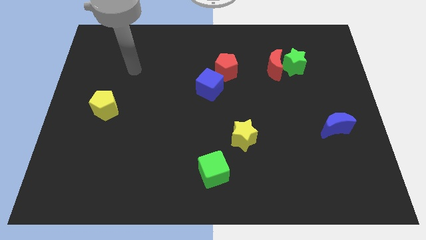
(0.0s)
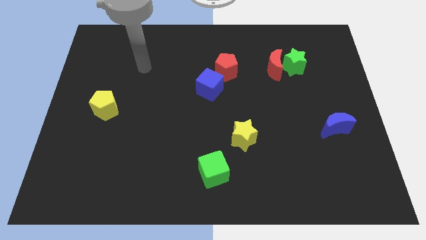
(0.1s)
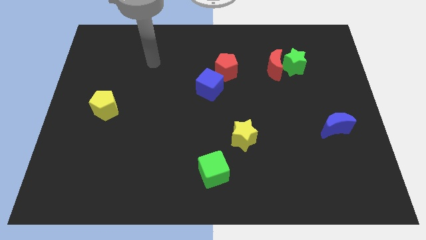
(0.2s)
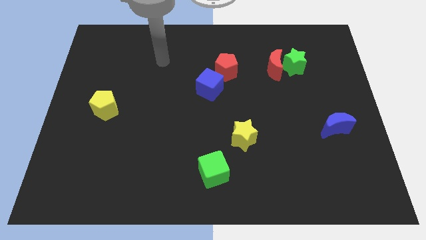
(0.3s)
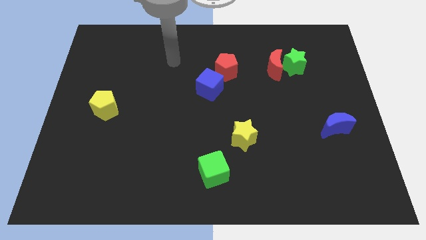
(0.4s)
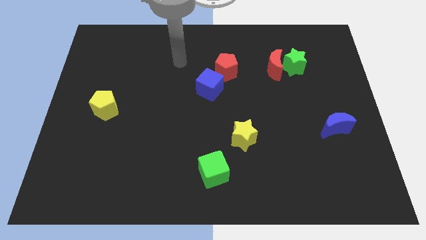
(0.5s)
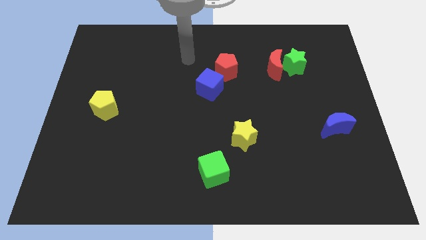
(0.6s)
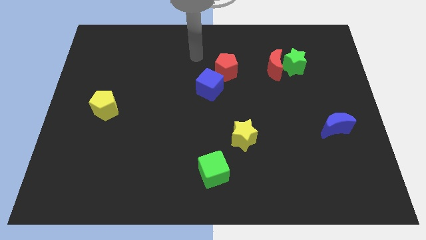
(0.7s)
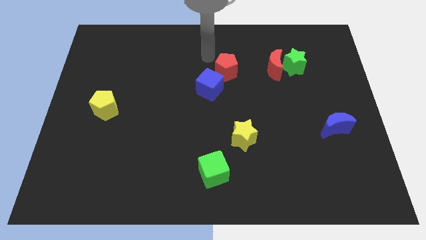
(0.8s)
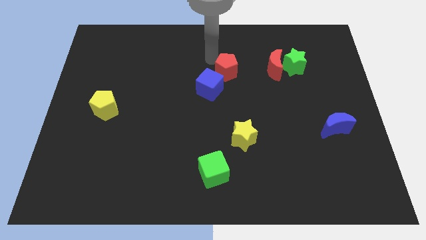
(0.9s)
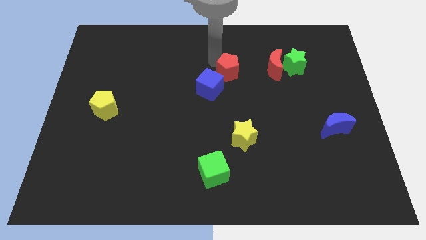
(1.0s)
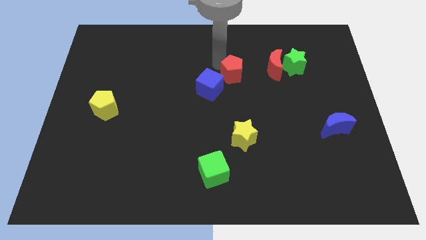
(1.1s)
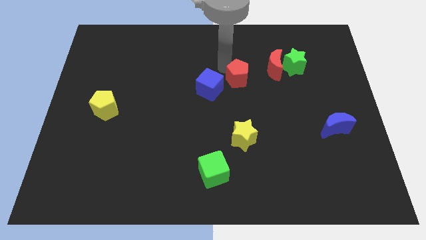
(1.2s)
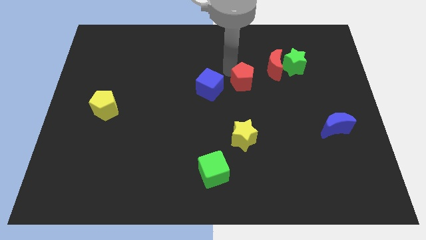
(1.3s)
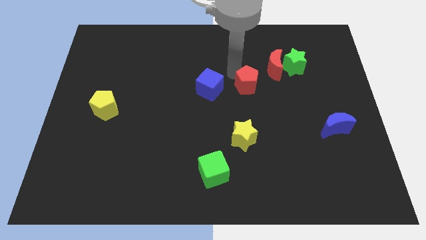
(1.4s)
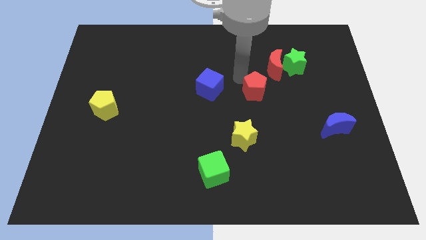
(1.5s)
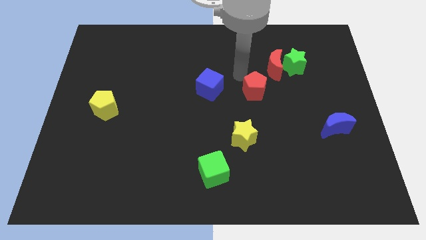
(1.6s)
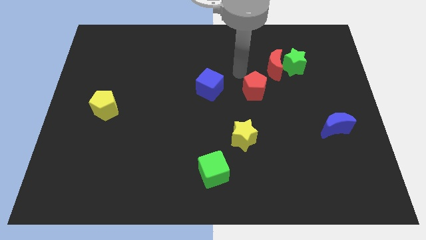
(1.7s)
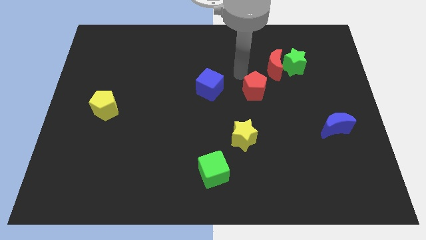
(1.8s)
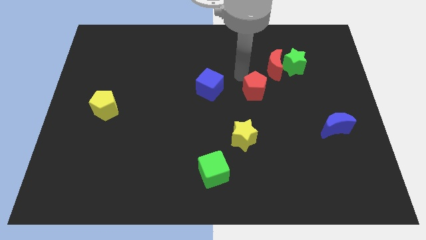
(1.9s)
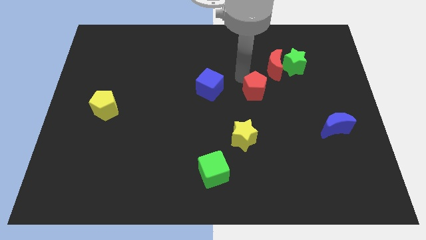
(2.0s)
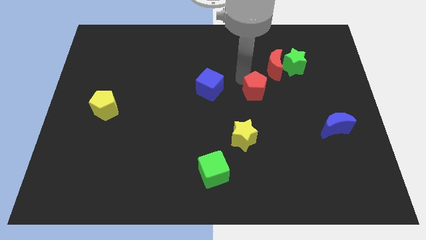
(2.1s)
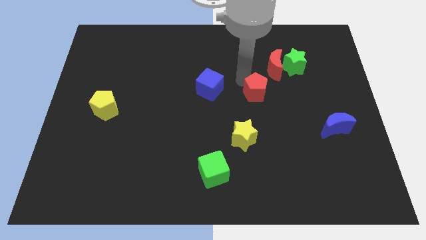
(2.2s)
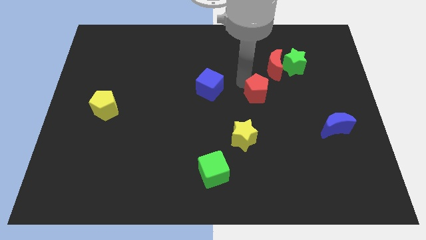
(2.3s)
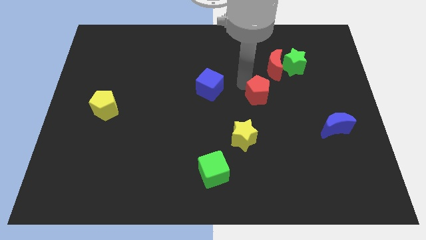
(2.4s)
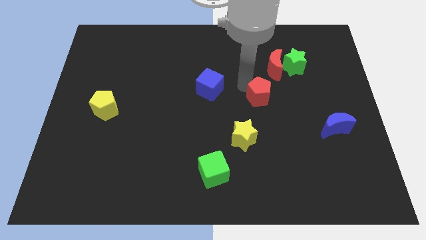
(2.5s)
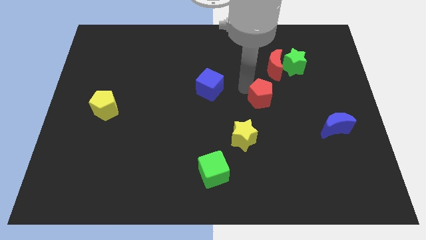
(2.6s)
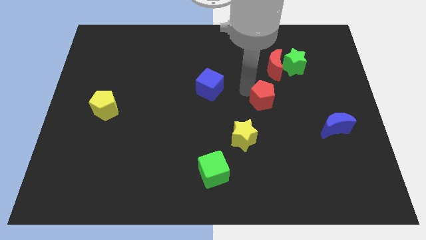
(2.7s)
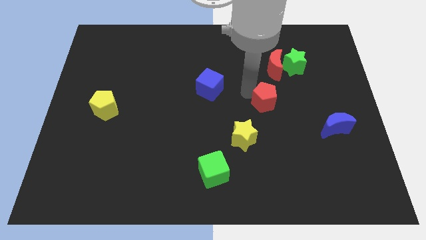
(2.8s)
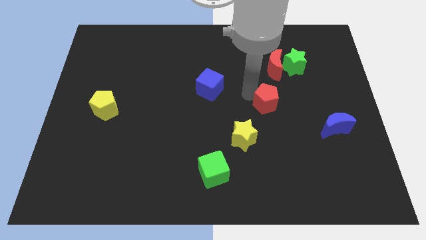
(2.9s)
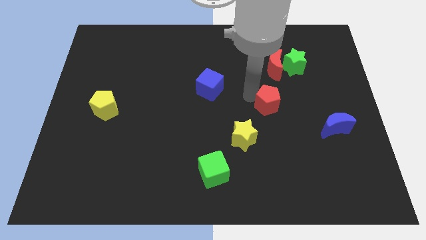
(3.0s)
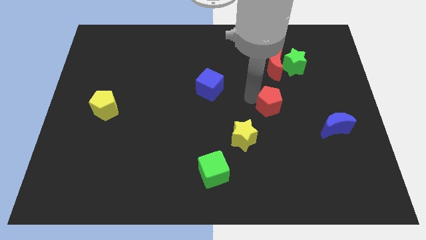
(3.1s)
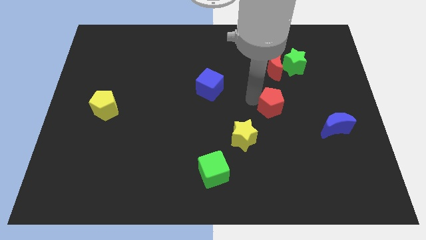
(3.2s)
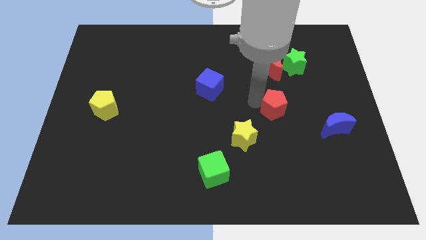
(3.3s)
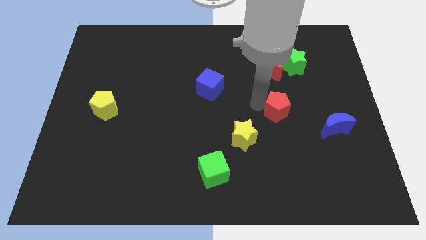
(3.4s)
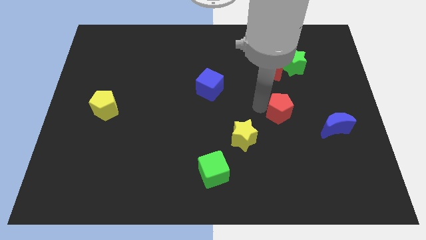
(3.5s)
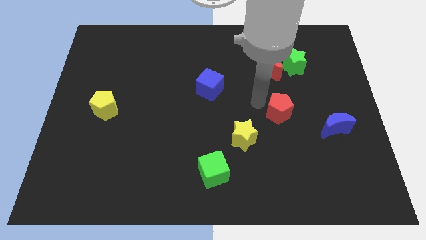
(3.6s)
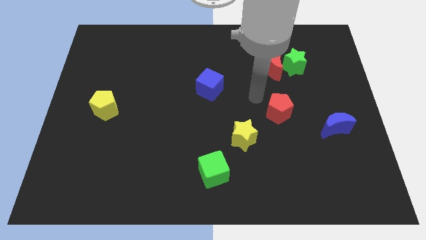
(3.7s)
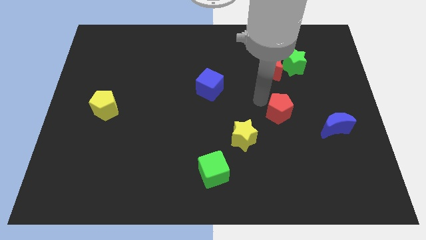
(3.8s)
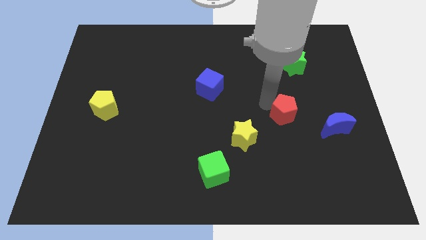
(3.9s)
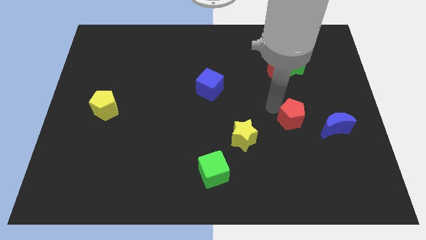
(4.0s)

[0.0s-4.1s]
move the red pentagon down and to the right

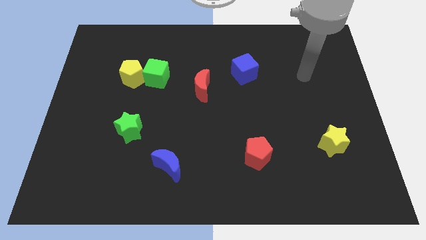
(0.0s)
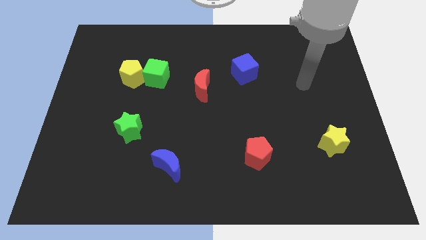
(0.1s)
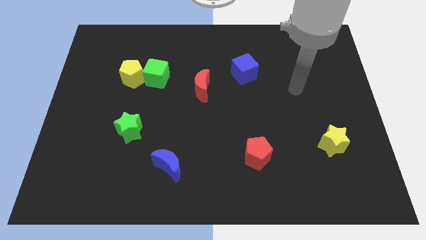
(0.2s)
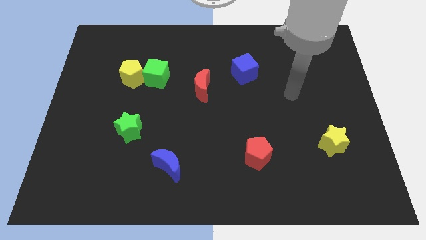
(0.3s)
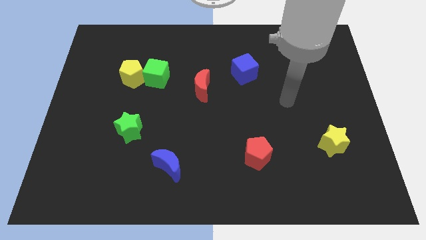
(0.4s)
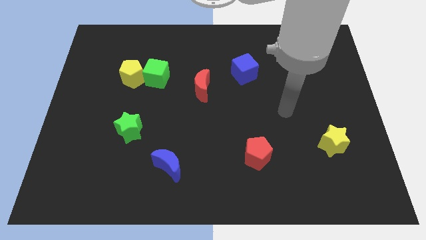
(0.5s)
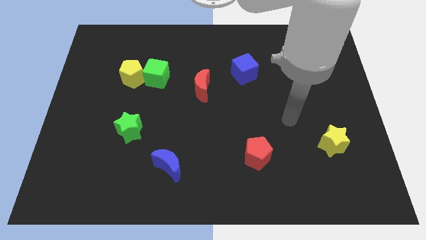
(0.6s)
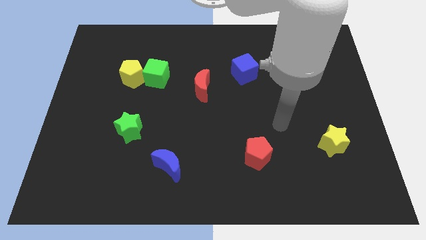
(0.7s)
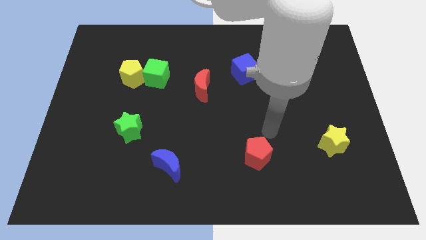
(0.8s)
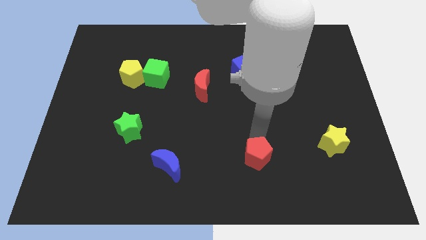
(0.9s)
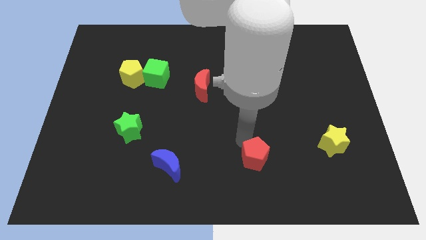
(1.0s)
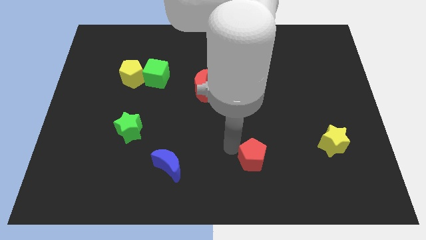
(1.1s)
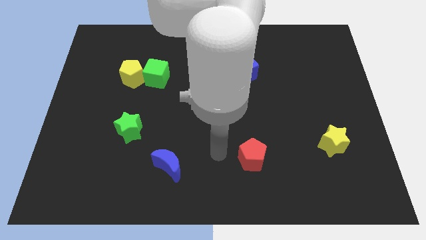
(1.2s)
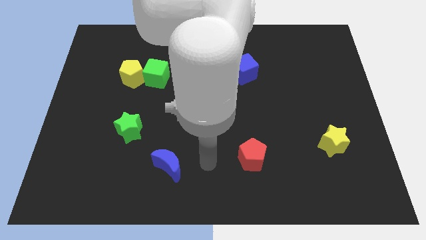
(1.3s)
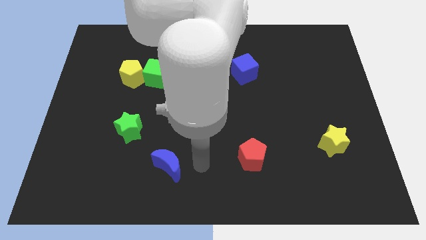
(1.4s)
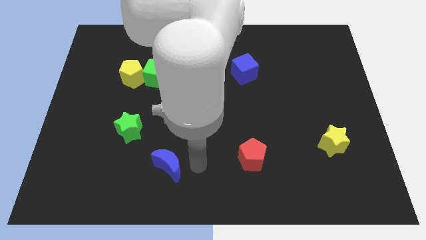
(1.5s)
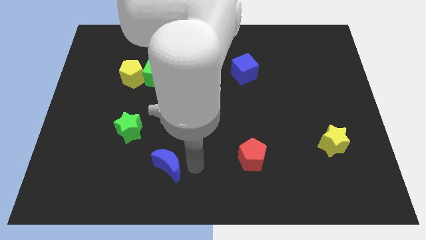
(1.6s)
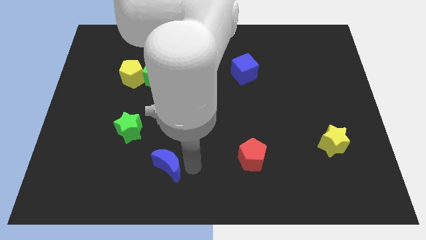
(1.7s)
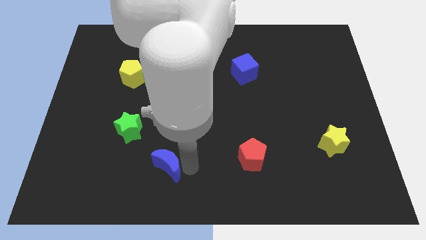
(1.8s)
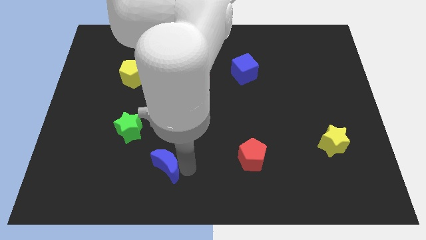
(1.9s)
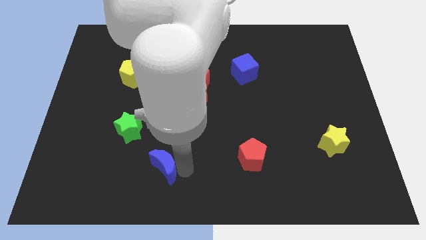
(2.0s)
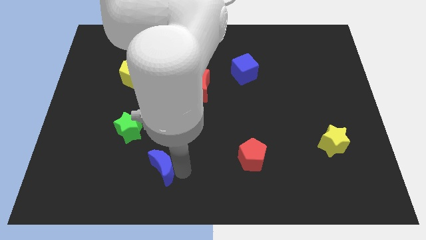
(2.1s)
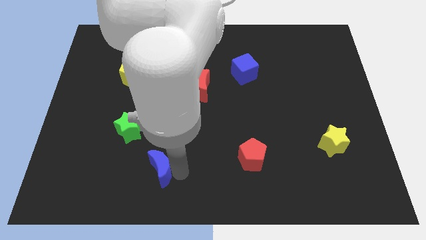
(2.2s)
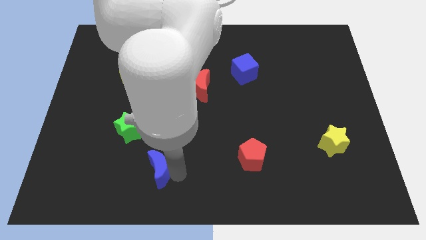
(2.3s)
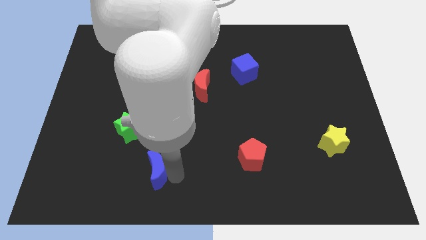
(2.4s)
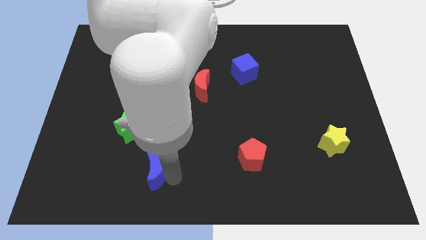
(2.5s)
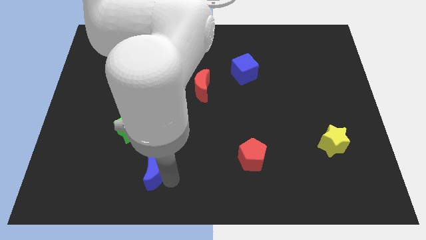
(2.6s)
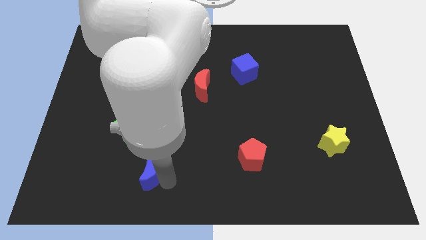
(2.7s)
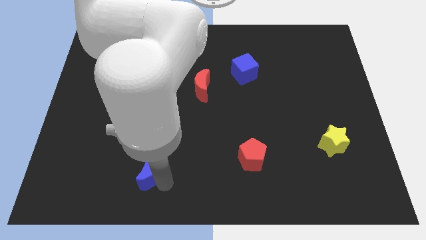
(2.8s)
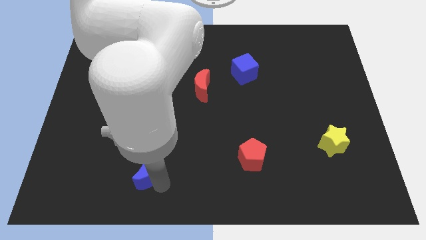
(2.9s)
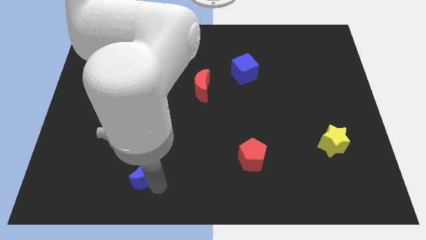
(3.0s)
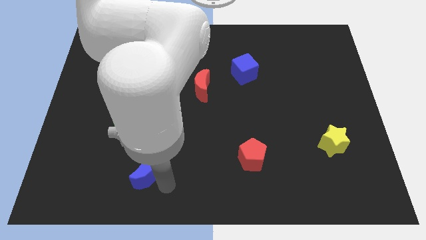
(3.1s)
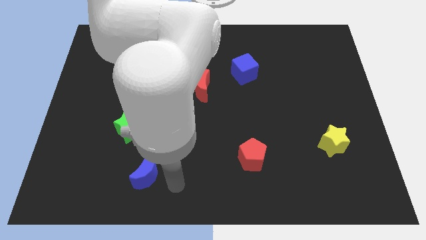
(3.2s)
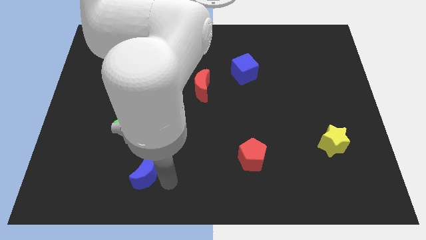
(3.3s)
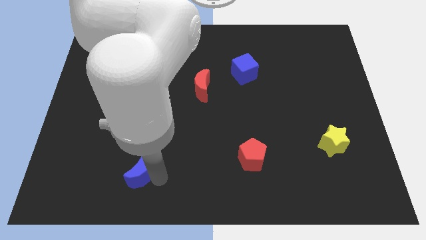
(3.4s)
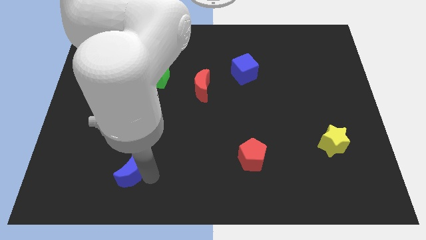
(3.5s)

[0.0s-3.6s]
slightly move the blue moon left

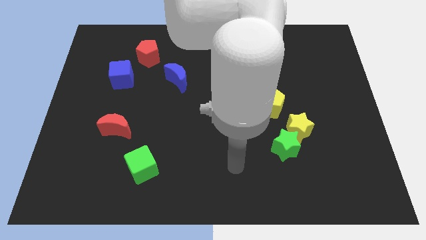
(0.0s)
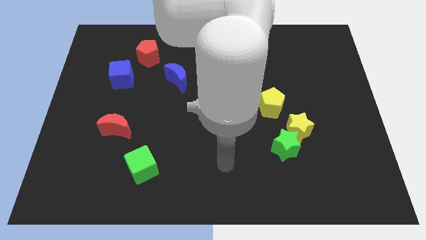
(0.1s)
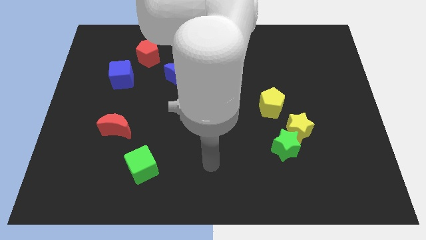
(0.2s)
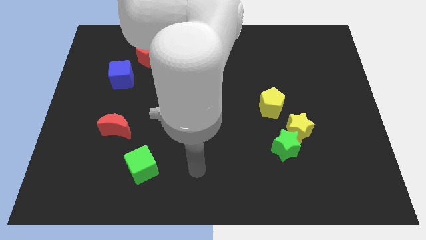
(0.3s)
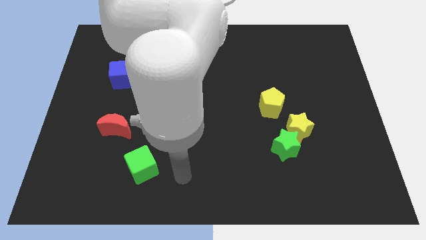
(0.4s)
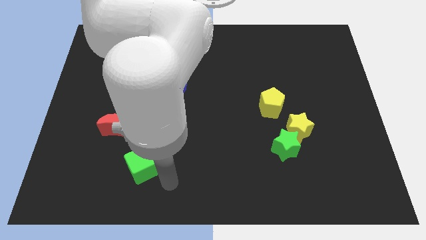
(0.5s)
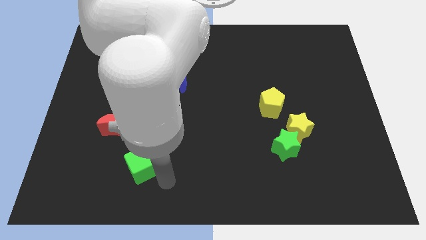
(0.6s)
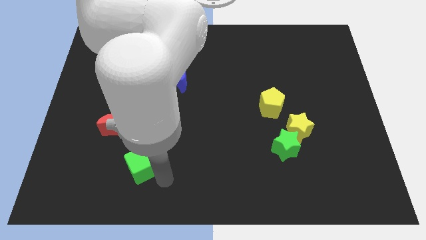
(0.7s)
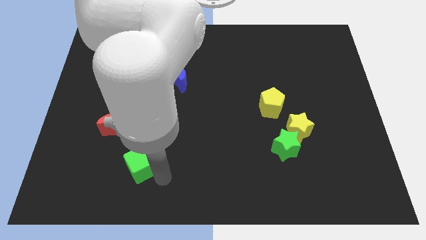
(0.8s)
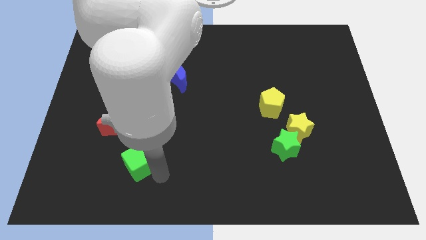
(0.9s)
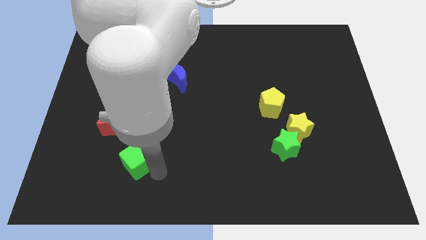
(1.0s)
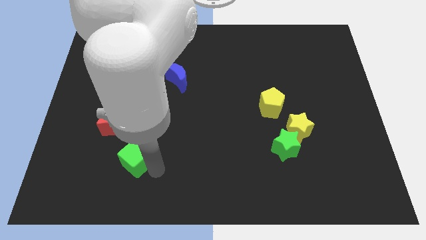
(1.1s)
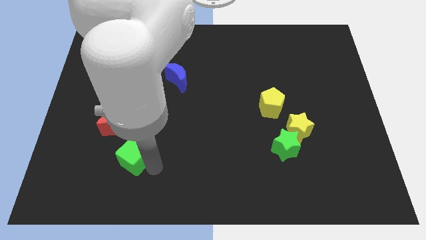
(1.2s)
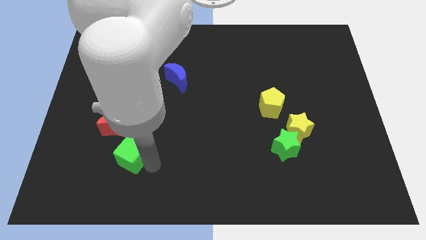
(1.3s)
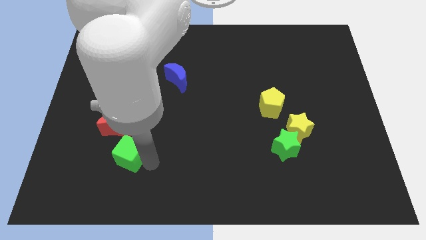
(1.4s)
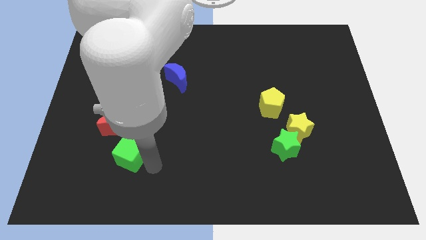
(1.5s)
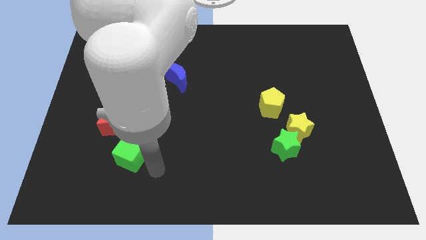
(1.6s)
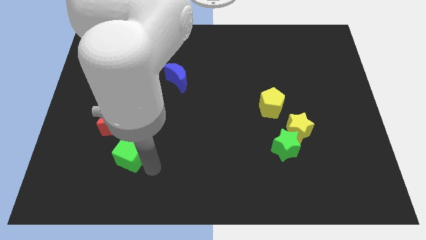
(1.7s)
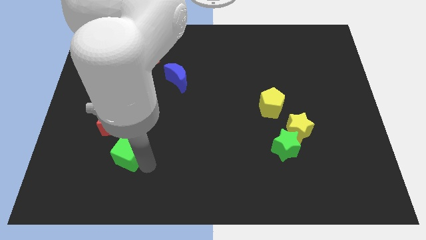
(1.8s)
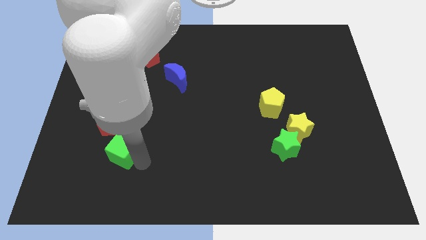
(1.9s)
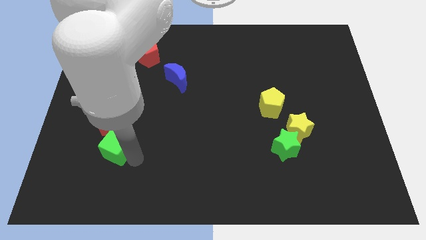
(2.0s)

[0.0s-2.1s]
slightly push the green cube upwards and to the left diagonally
